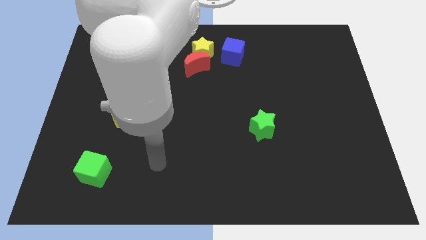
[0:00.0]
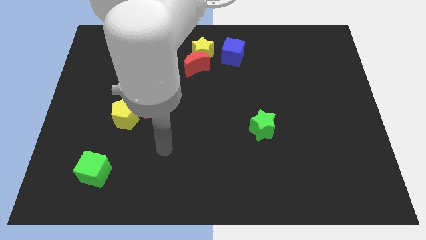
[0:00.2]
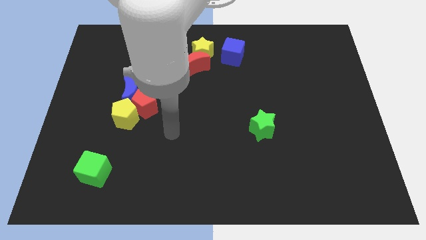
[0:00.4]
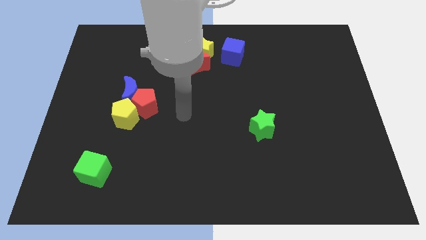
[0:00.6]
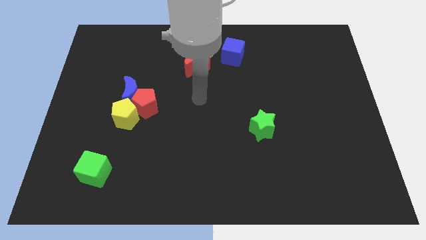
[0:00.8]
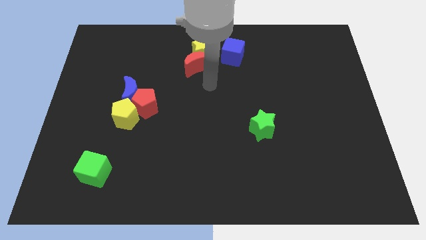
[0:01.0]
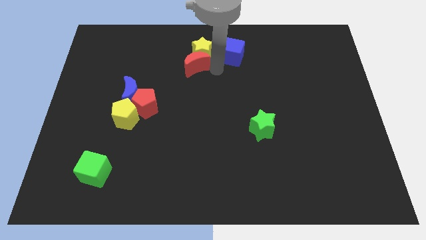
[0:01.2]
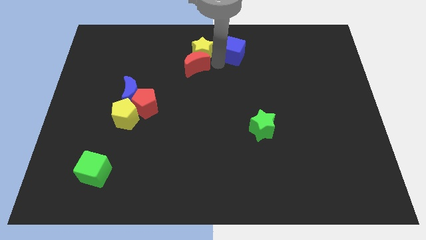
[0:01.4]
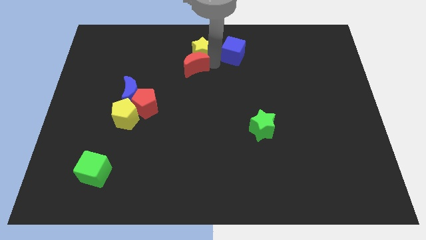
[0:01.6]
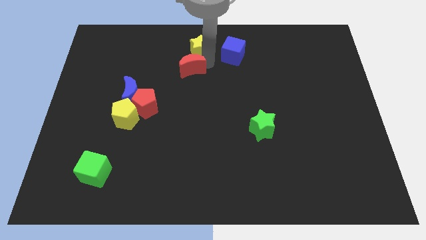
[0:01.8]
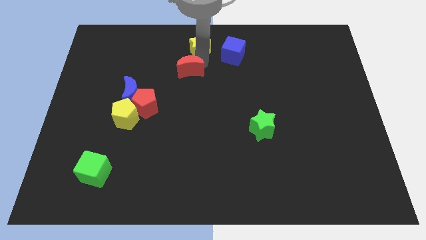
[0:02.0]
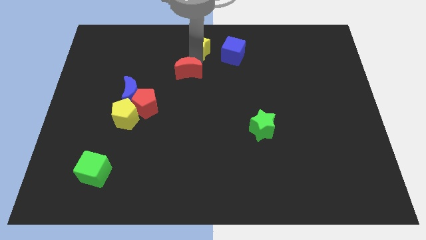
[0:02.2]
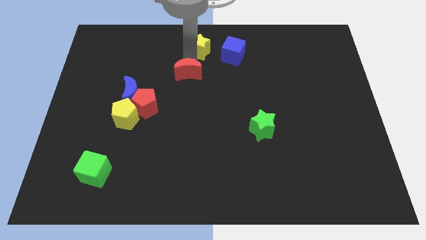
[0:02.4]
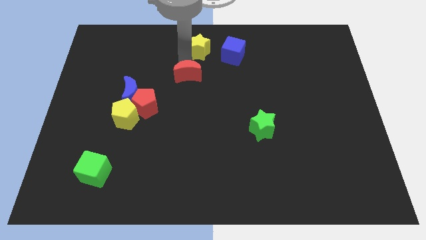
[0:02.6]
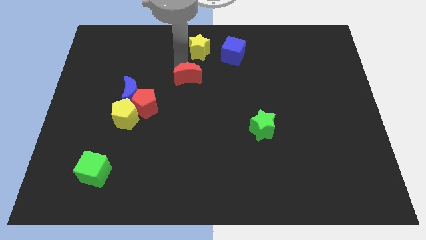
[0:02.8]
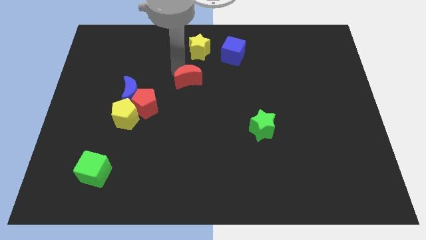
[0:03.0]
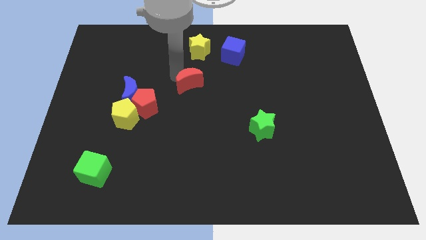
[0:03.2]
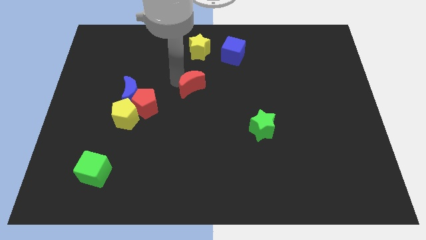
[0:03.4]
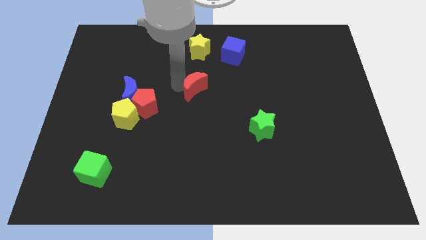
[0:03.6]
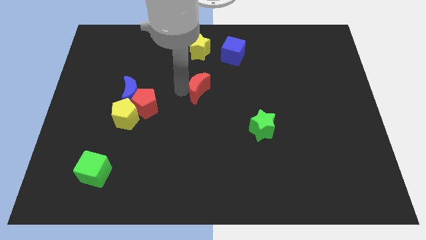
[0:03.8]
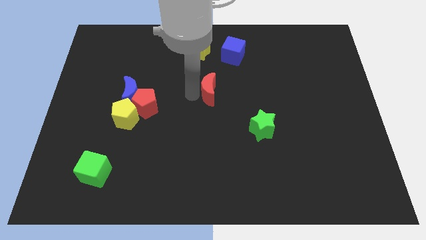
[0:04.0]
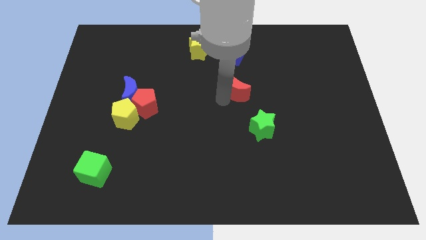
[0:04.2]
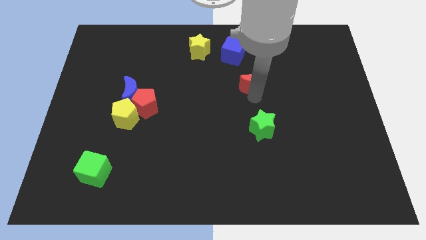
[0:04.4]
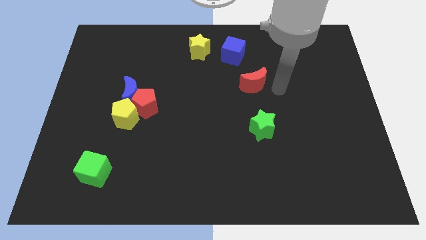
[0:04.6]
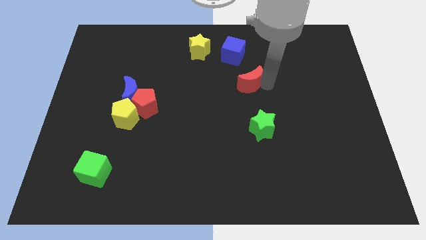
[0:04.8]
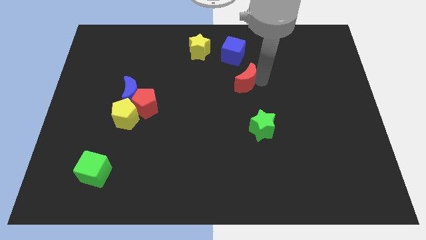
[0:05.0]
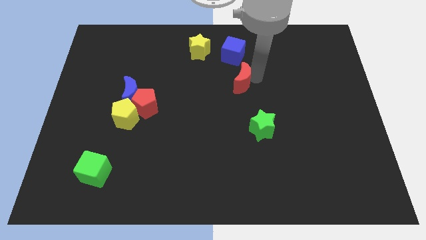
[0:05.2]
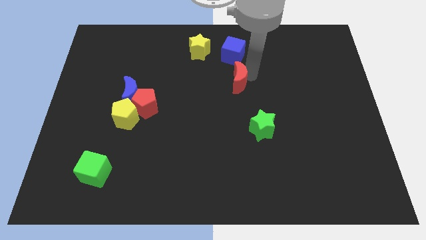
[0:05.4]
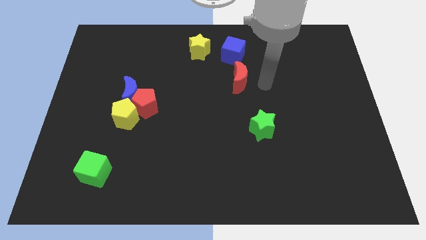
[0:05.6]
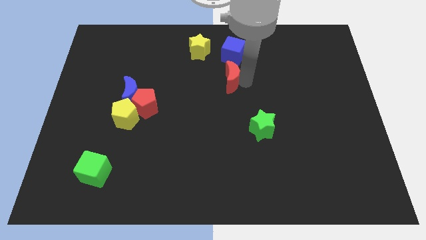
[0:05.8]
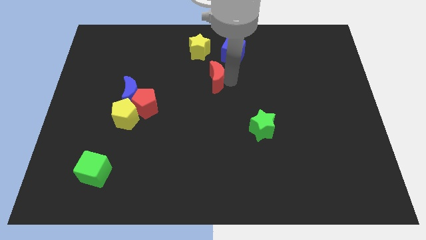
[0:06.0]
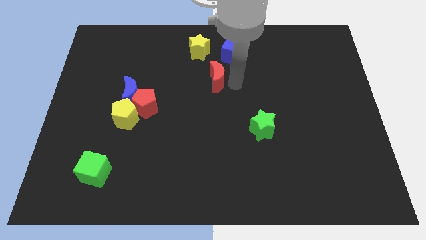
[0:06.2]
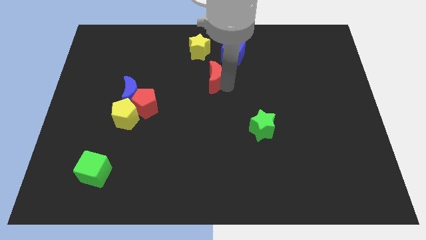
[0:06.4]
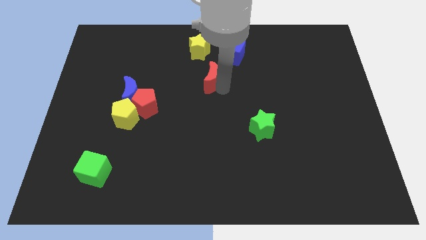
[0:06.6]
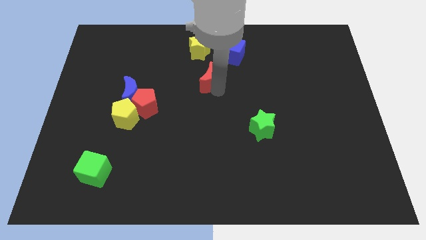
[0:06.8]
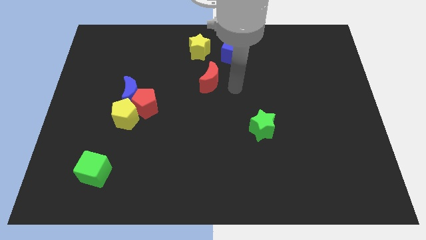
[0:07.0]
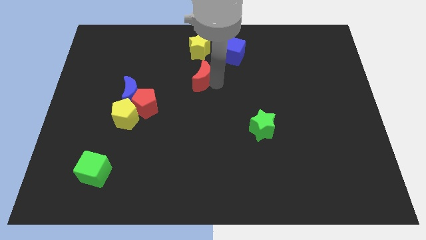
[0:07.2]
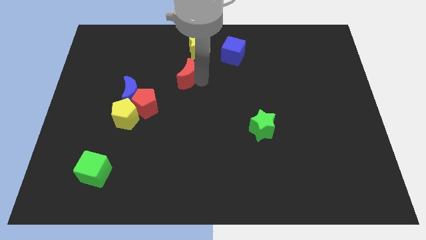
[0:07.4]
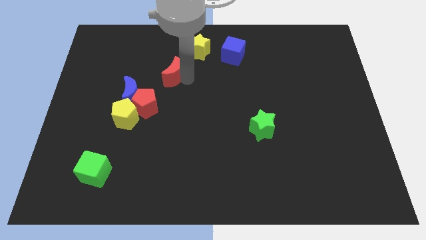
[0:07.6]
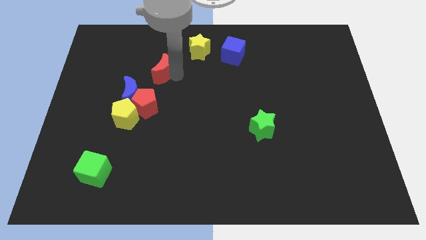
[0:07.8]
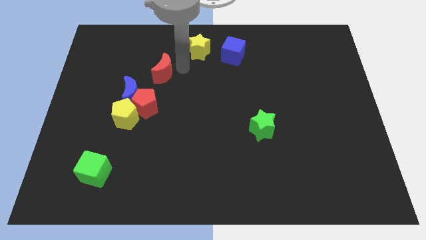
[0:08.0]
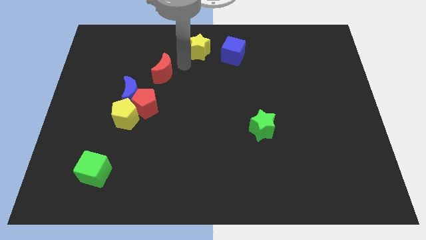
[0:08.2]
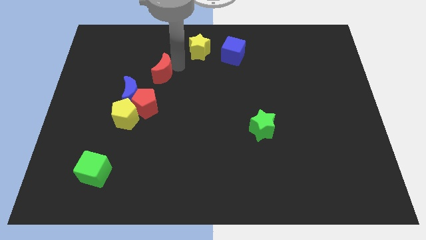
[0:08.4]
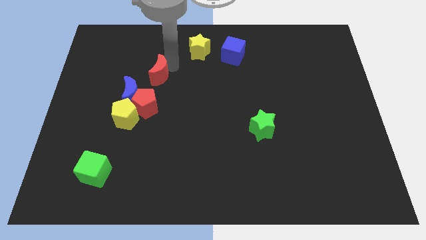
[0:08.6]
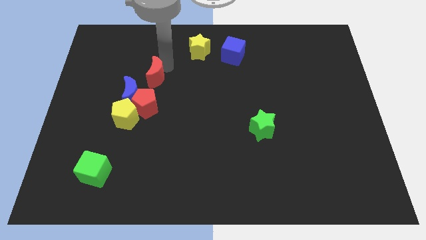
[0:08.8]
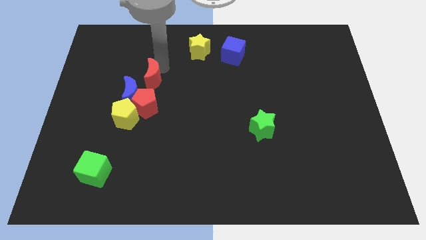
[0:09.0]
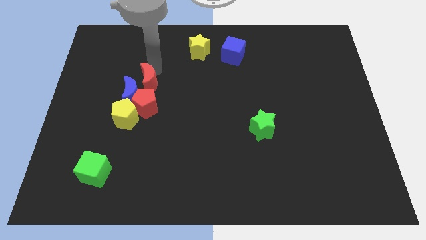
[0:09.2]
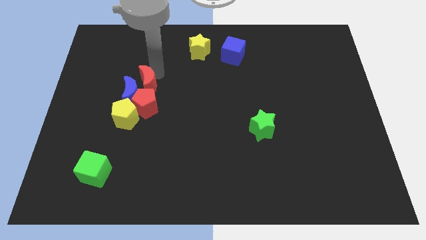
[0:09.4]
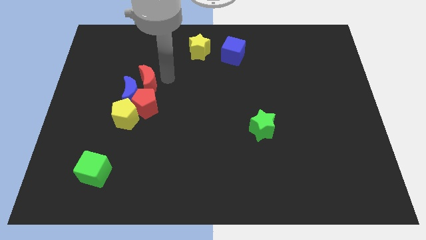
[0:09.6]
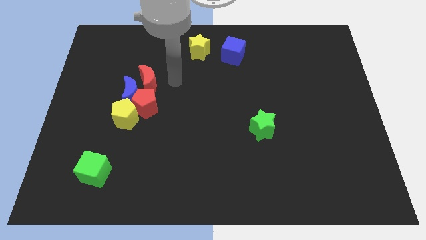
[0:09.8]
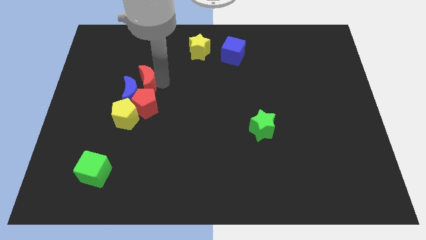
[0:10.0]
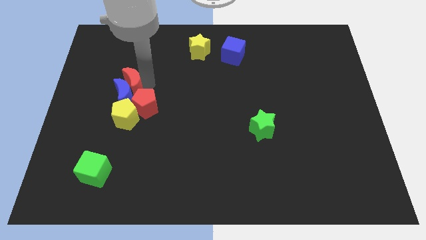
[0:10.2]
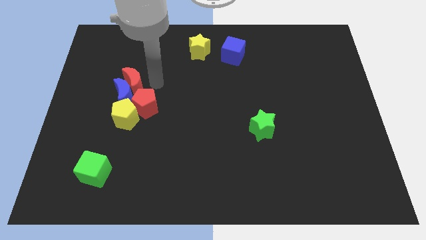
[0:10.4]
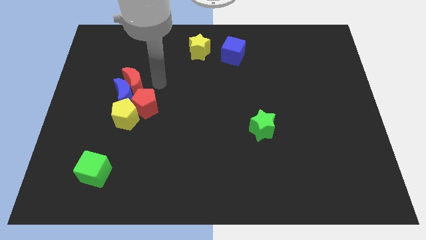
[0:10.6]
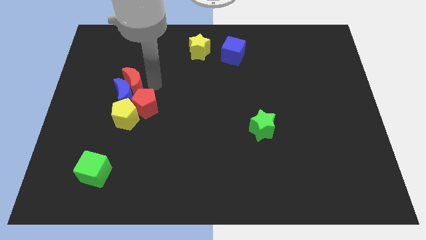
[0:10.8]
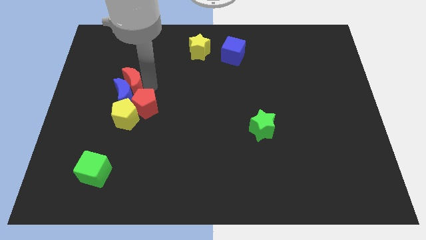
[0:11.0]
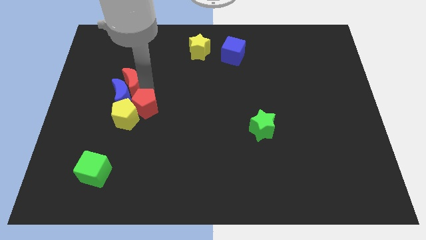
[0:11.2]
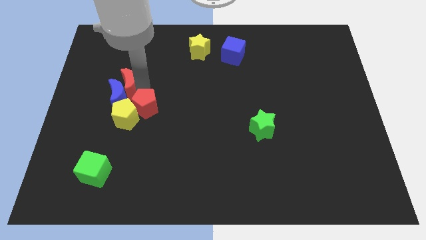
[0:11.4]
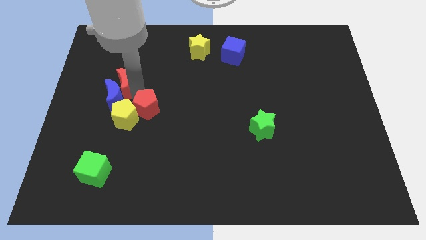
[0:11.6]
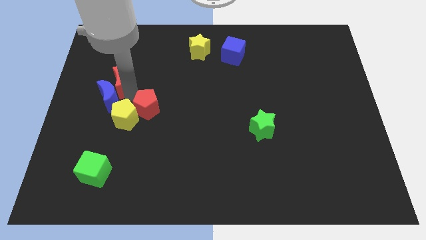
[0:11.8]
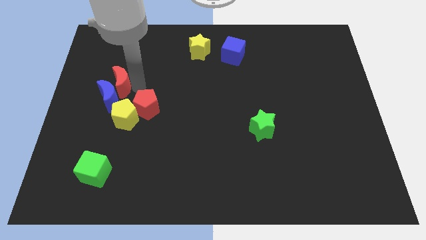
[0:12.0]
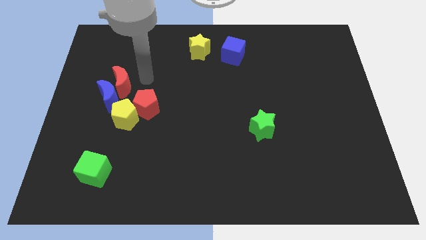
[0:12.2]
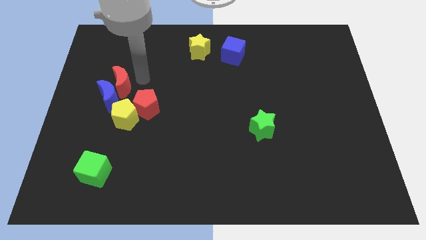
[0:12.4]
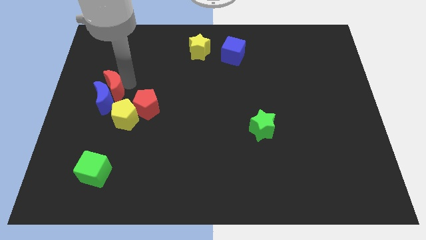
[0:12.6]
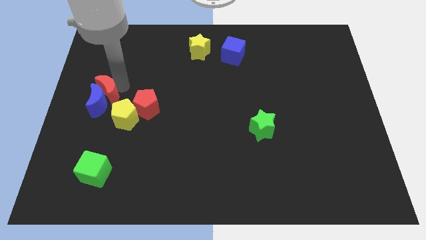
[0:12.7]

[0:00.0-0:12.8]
slide the red moon to the center left
